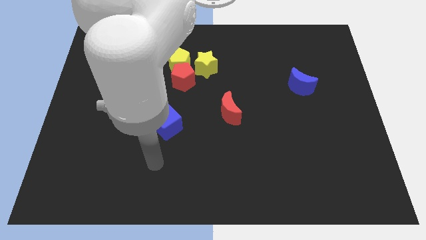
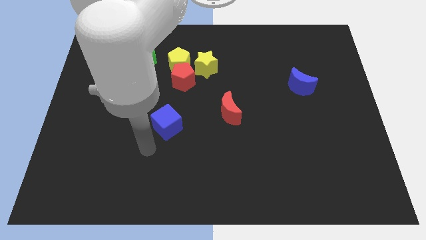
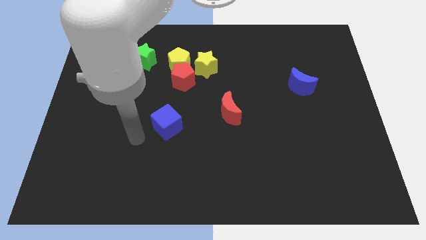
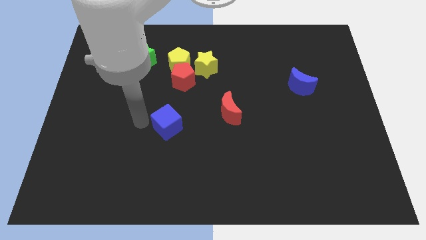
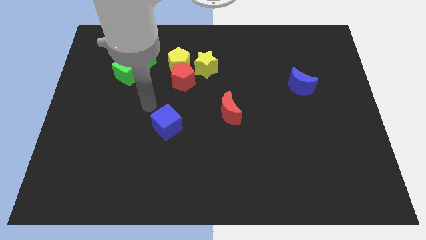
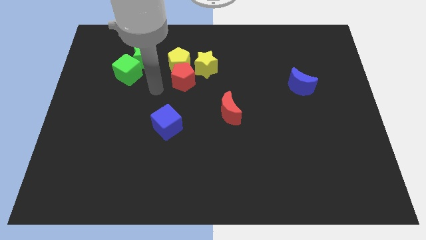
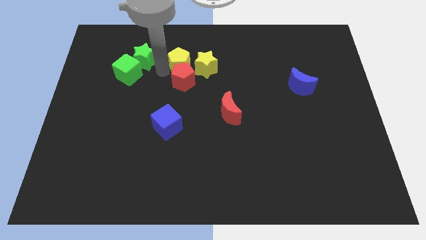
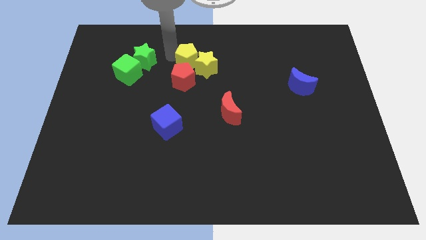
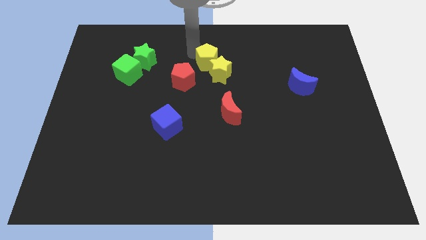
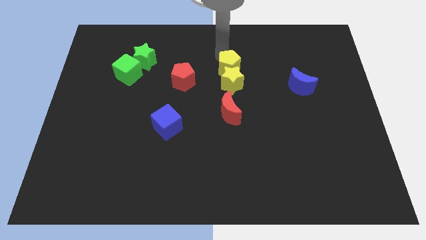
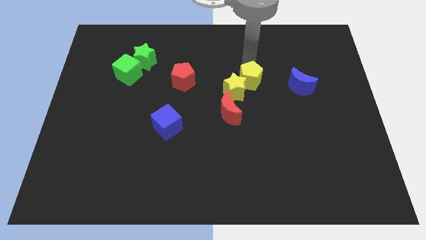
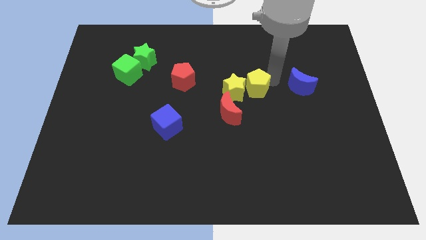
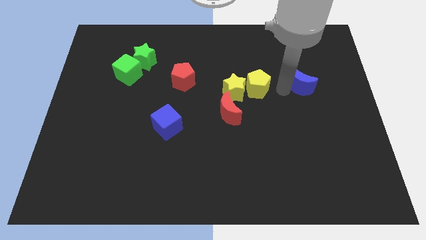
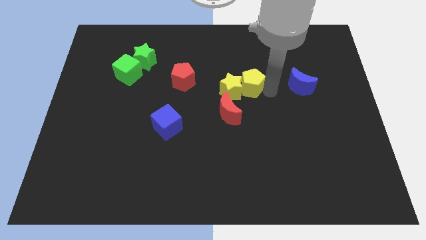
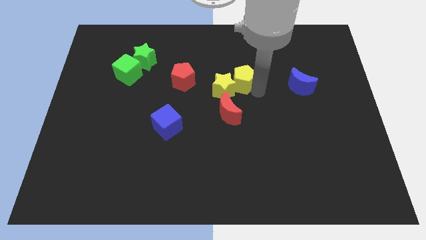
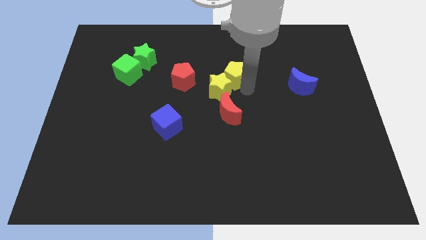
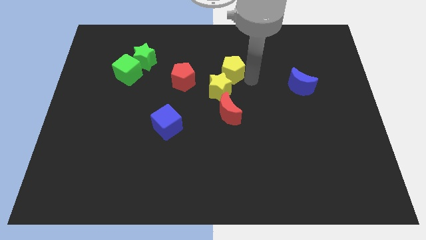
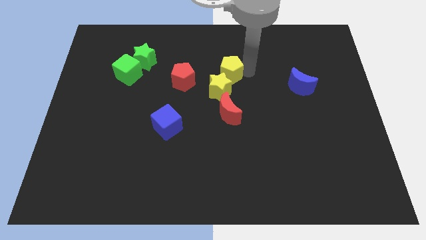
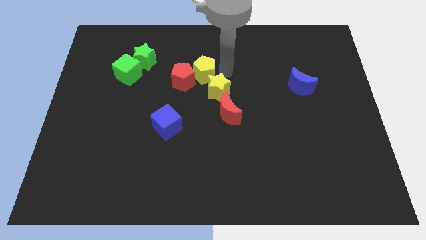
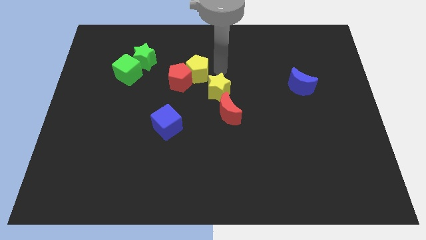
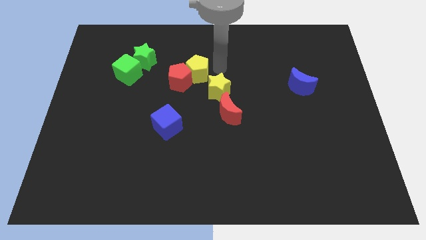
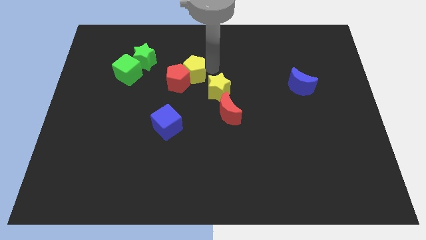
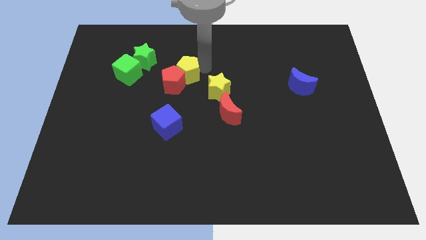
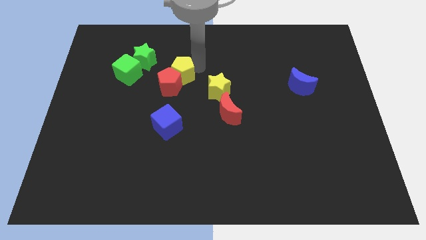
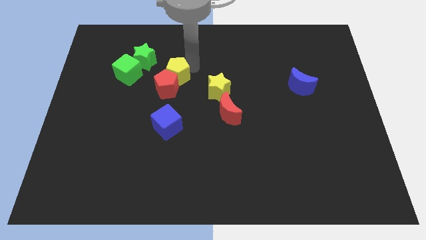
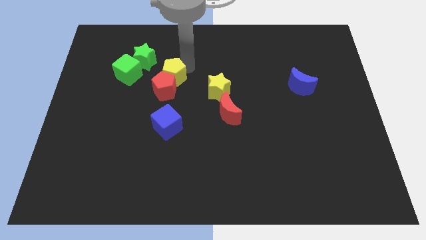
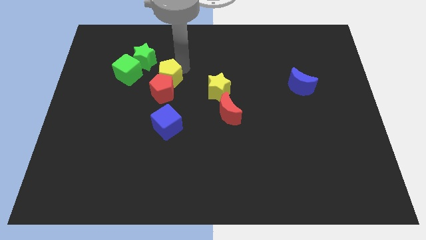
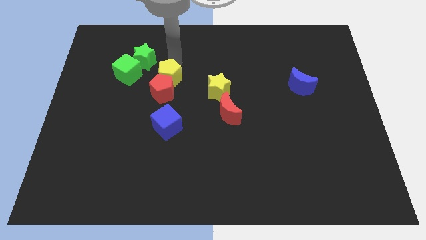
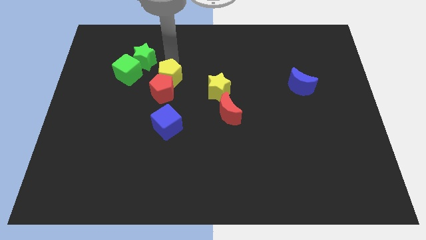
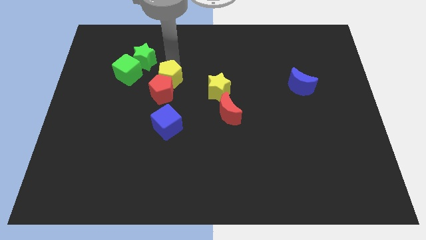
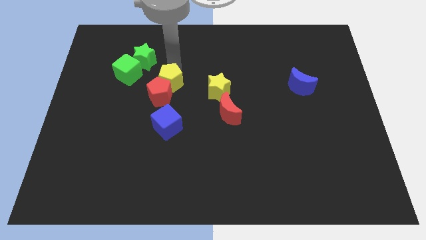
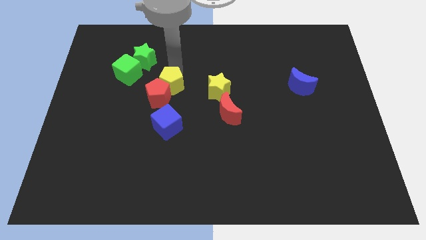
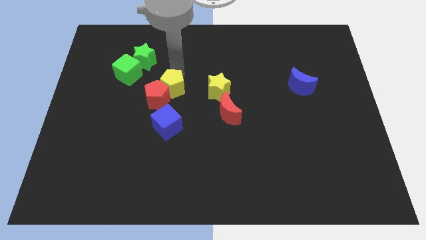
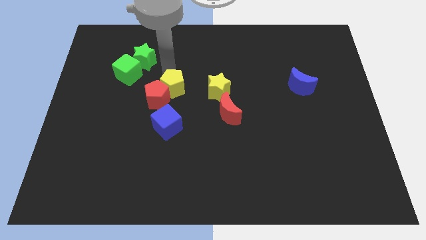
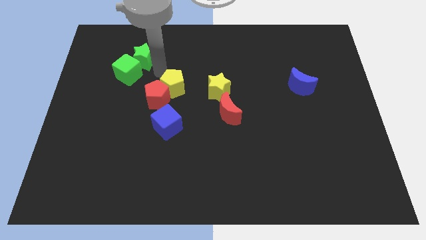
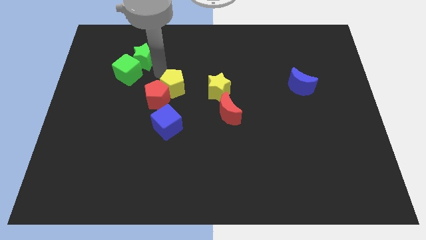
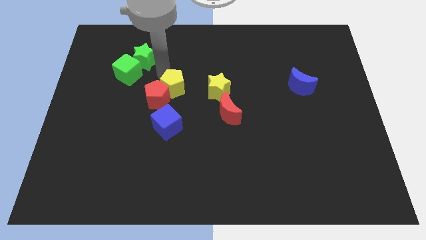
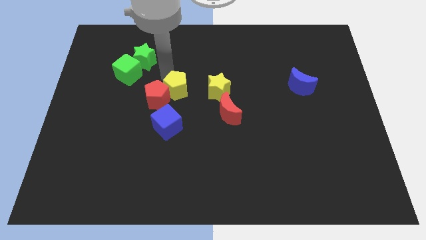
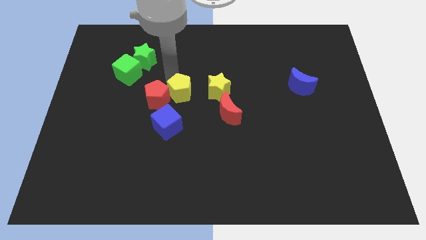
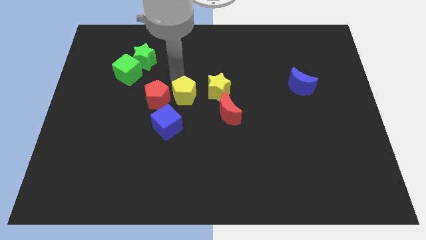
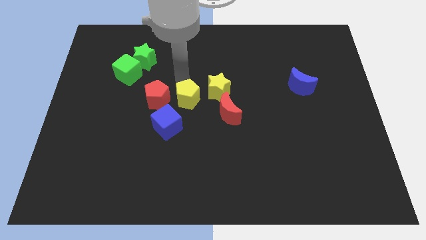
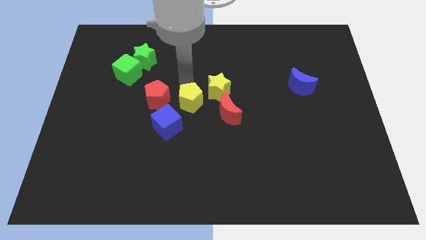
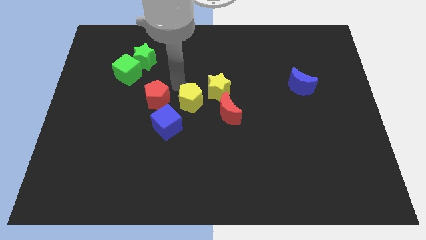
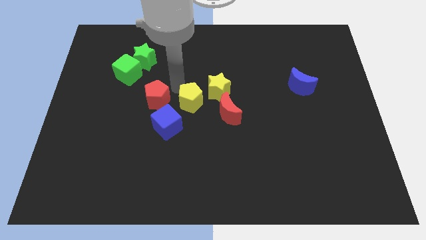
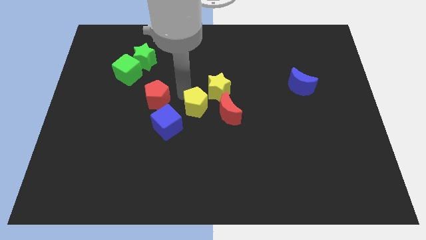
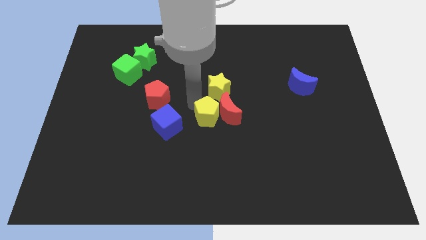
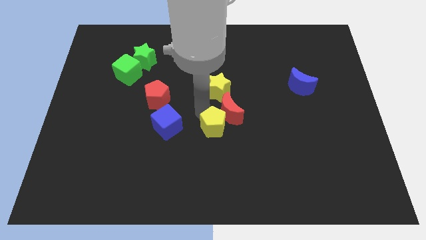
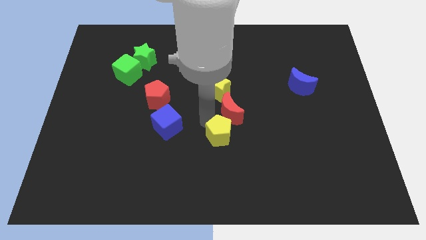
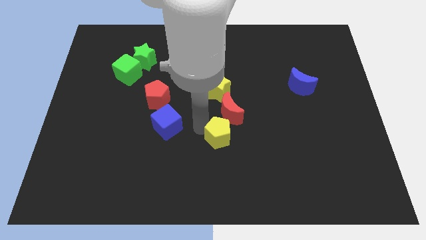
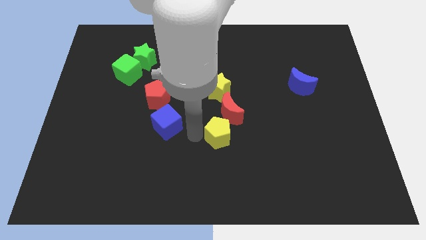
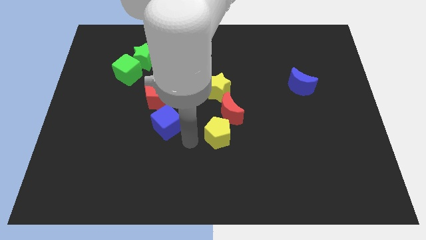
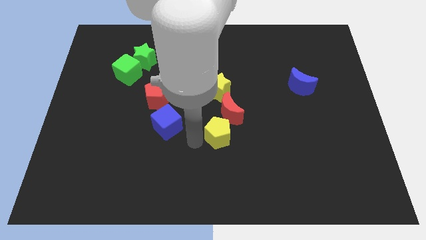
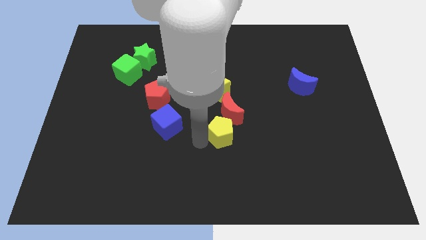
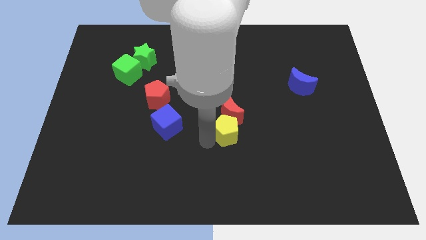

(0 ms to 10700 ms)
put the yellow pentagon to the bottom right of the red moon

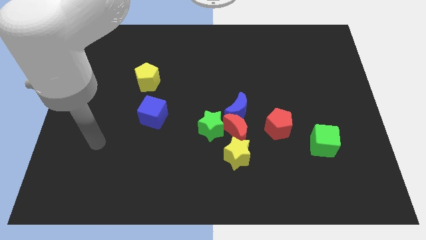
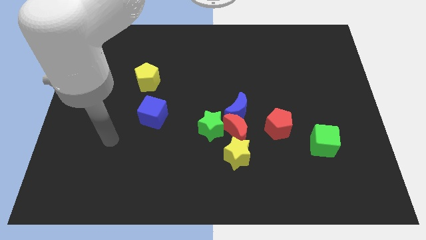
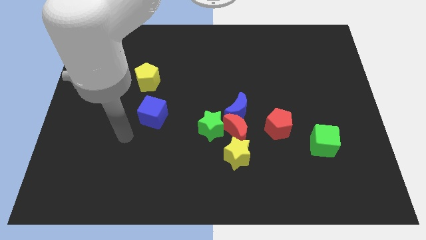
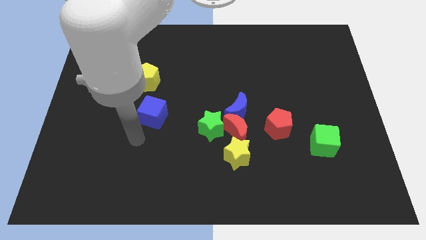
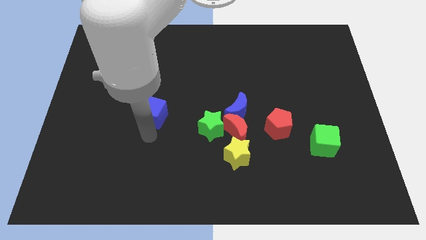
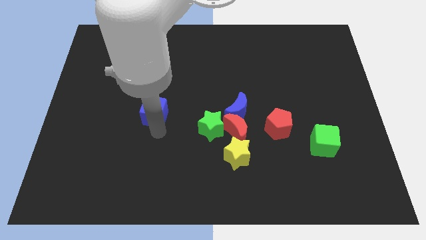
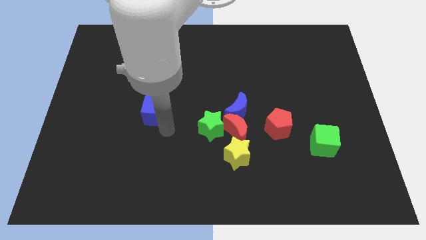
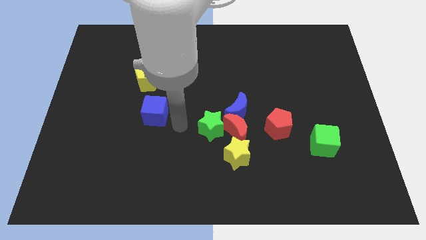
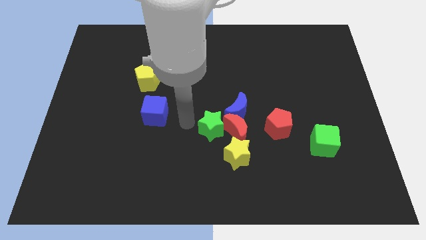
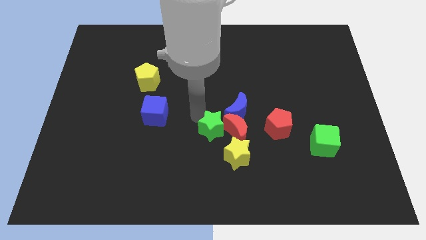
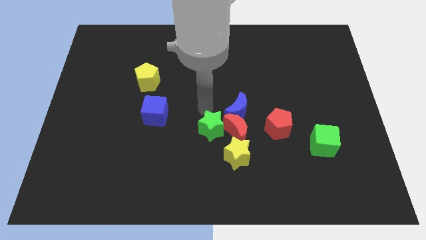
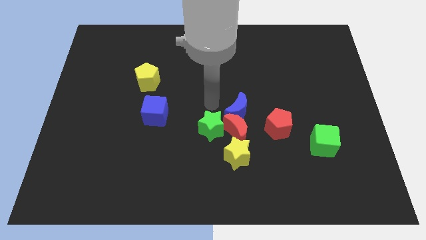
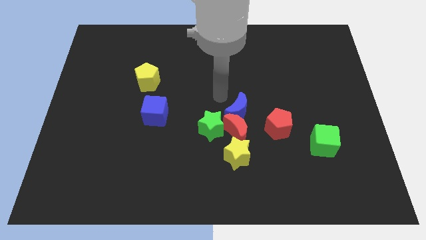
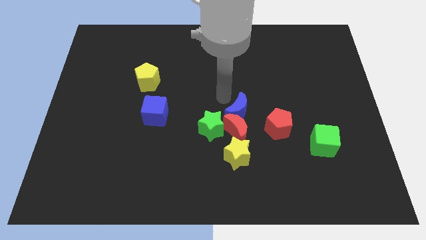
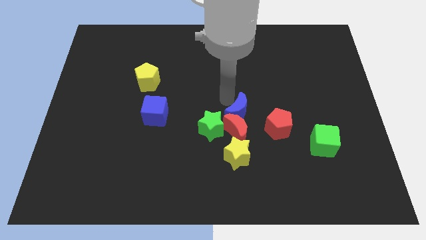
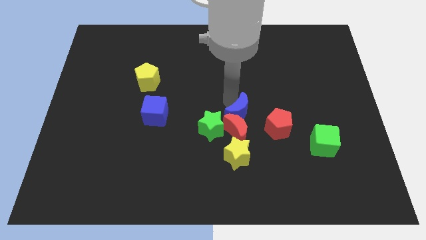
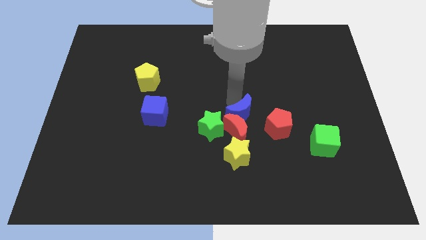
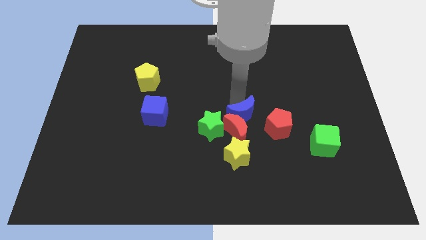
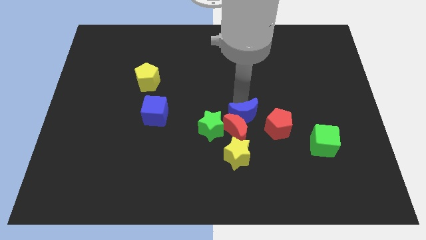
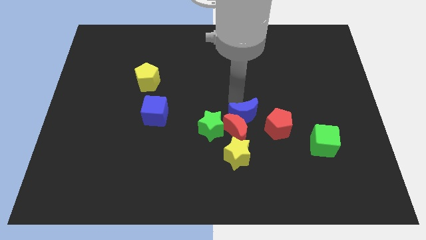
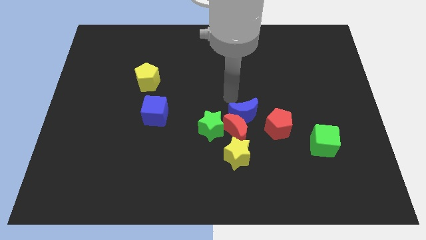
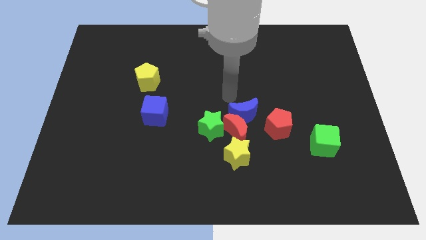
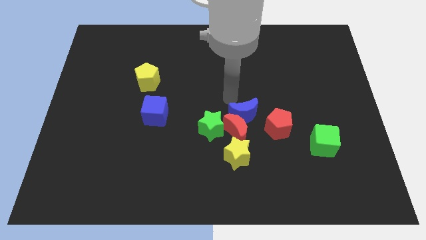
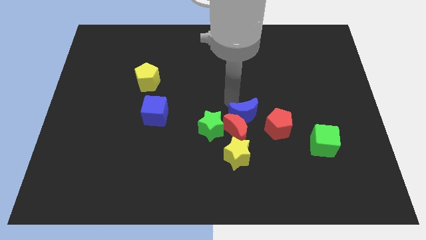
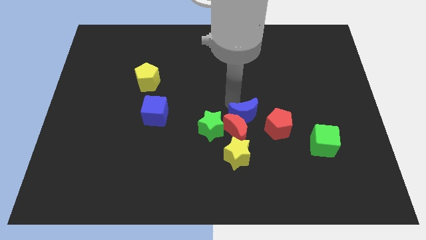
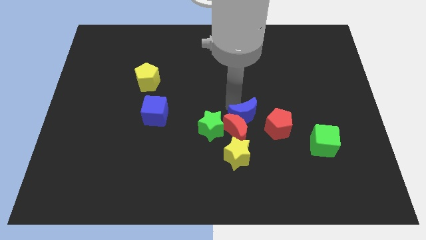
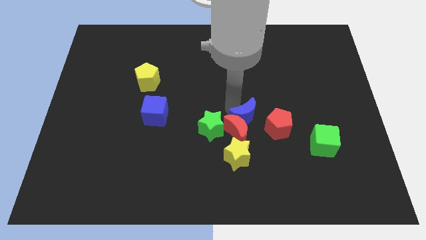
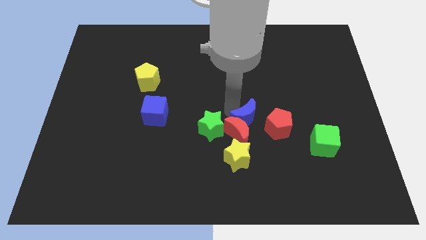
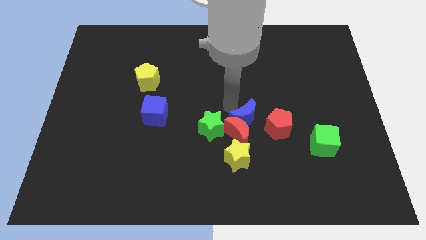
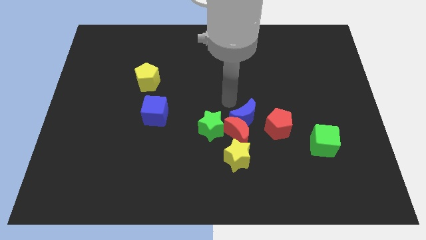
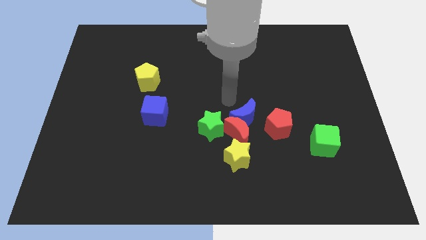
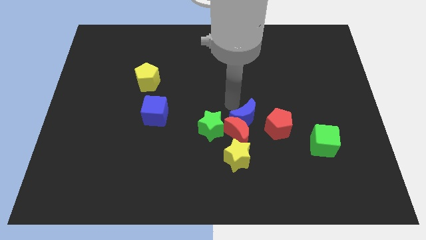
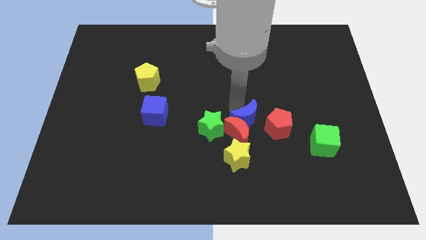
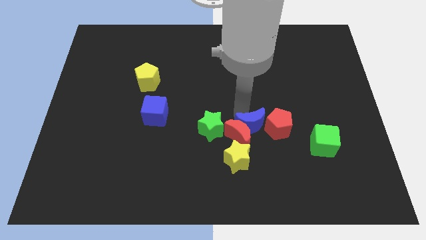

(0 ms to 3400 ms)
slide the blue moon to the top right side of the yellow star
